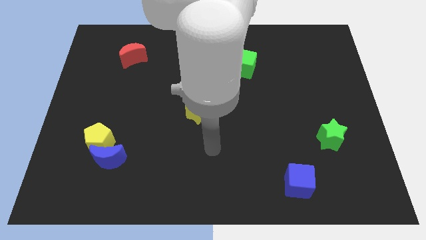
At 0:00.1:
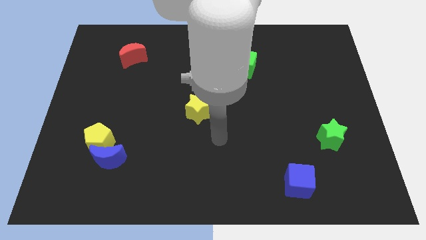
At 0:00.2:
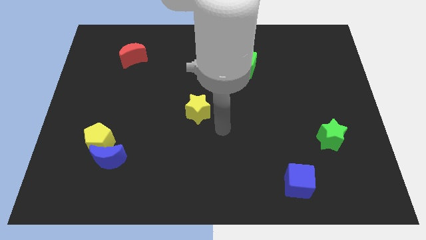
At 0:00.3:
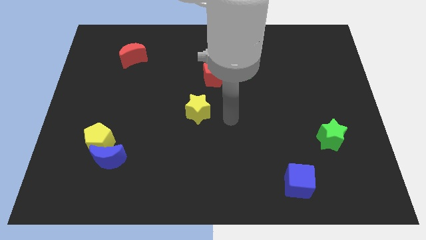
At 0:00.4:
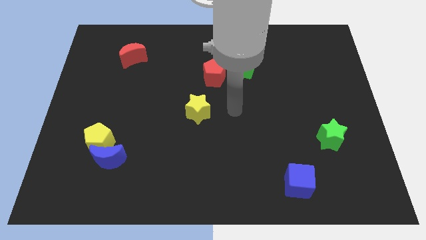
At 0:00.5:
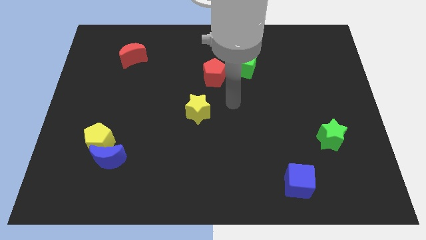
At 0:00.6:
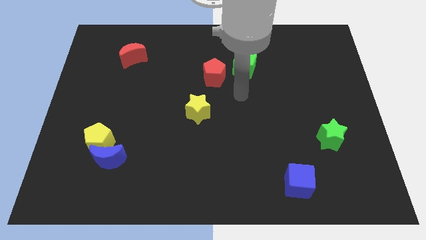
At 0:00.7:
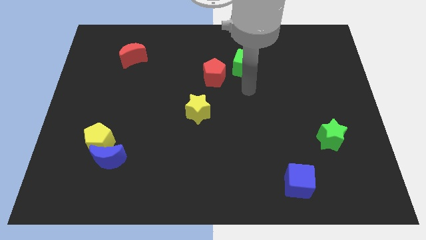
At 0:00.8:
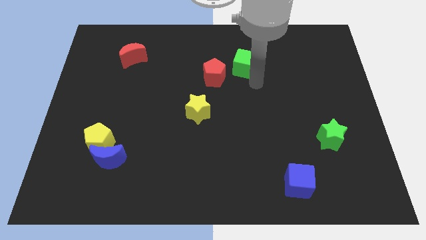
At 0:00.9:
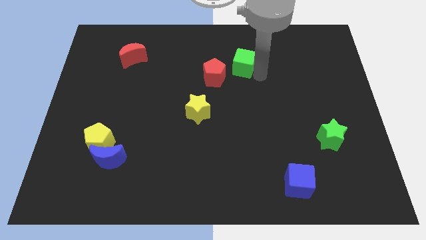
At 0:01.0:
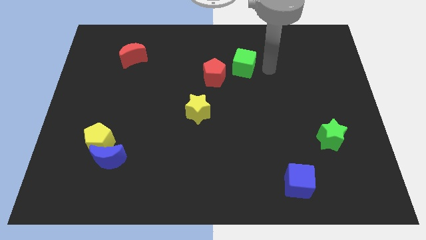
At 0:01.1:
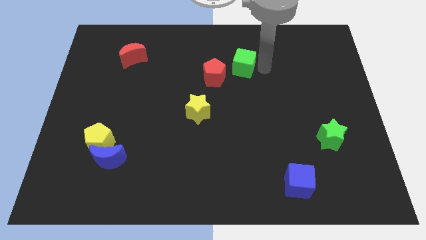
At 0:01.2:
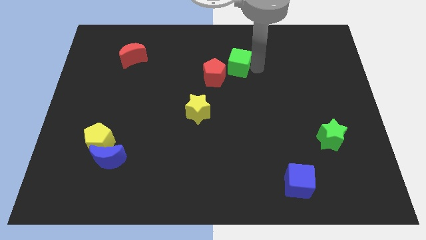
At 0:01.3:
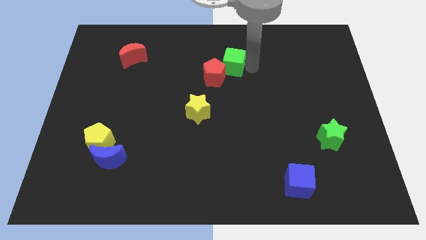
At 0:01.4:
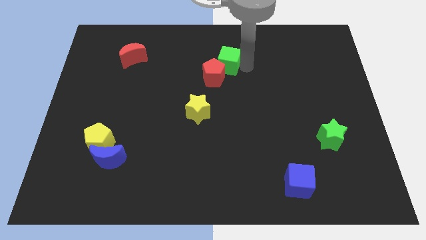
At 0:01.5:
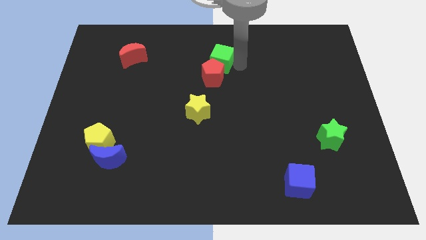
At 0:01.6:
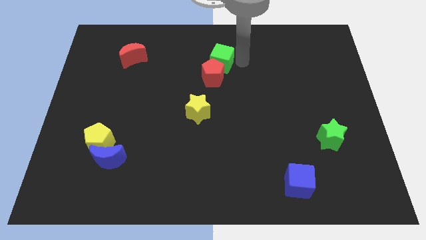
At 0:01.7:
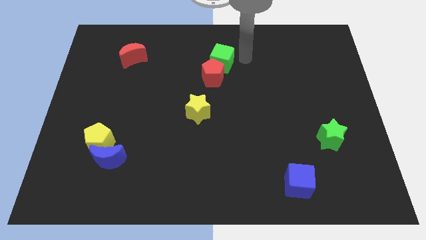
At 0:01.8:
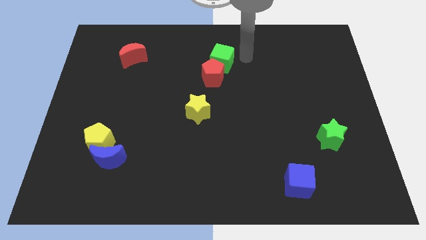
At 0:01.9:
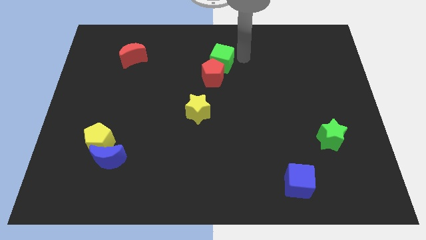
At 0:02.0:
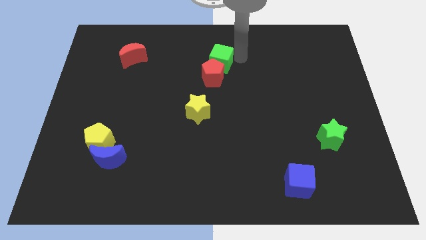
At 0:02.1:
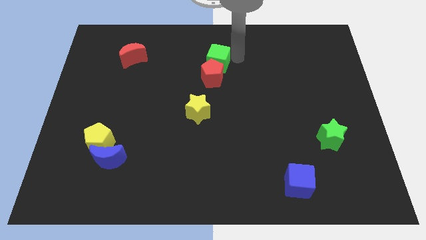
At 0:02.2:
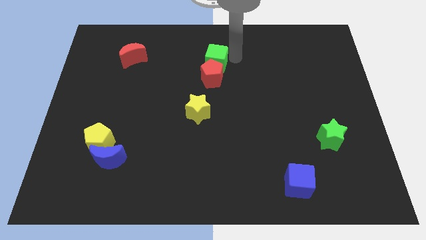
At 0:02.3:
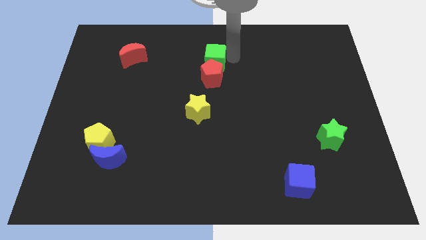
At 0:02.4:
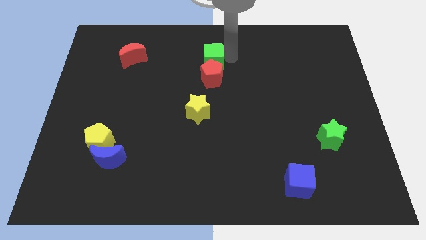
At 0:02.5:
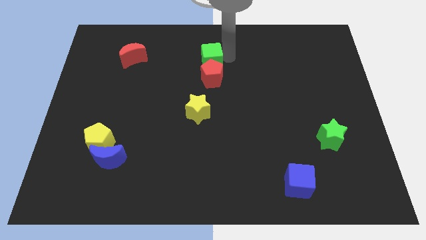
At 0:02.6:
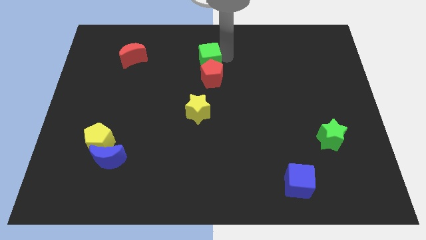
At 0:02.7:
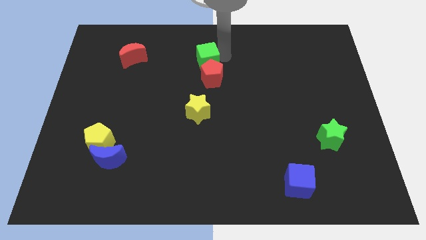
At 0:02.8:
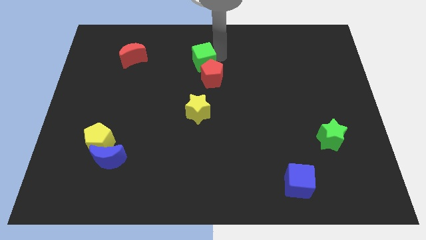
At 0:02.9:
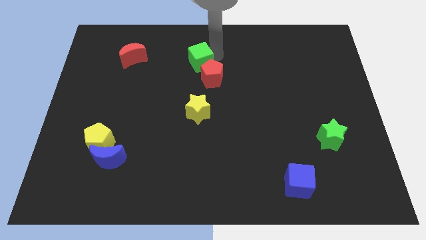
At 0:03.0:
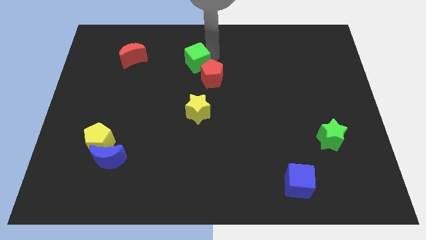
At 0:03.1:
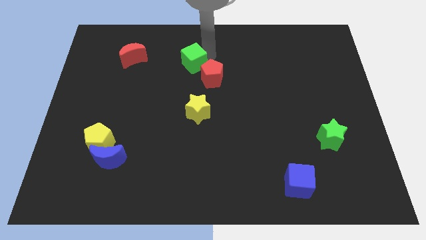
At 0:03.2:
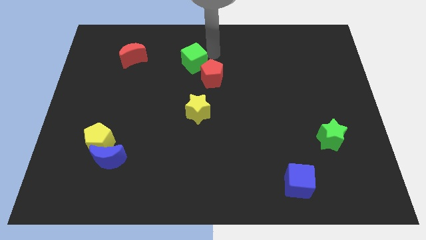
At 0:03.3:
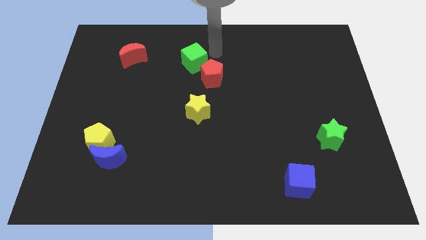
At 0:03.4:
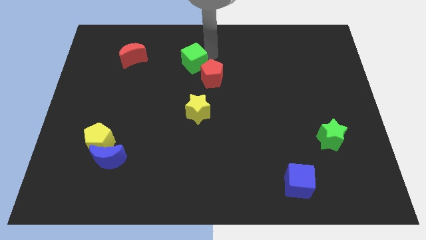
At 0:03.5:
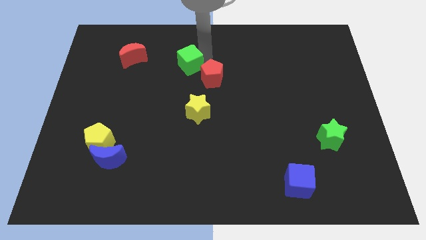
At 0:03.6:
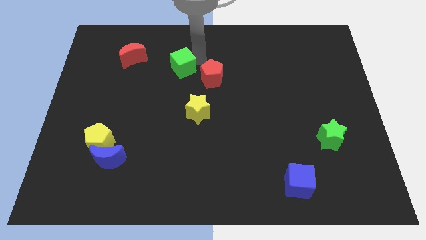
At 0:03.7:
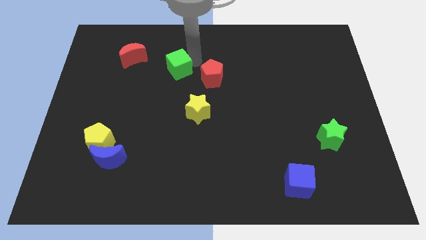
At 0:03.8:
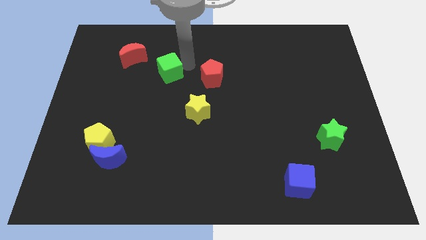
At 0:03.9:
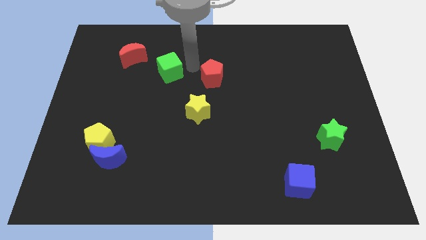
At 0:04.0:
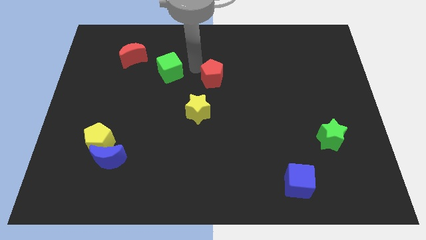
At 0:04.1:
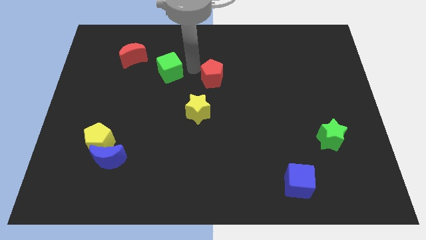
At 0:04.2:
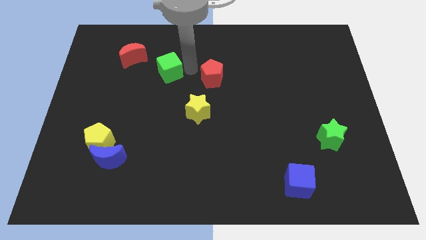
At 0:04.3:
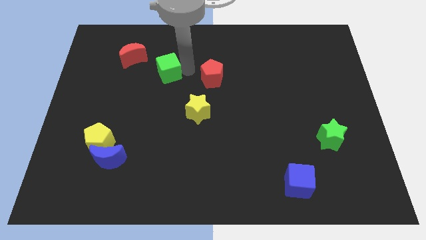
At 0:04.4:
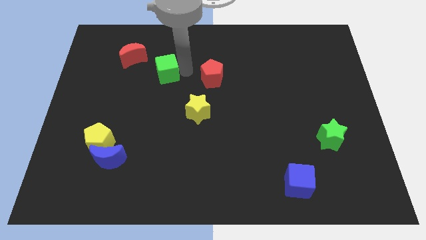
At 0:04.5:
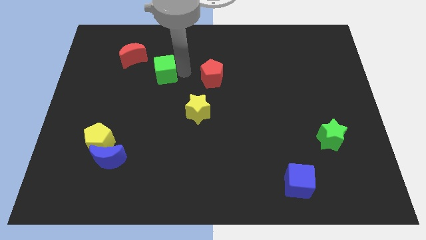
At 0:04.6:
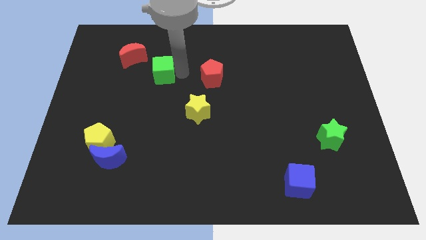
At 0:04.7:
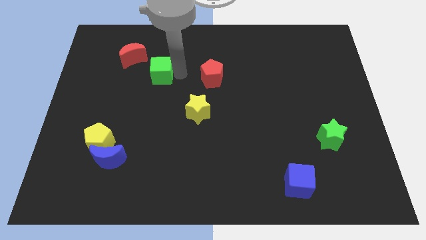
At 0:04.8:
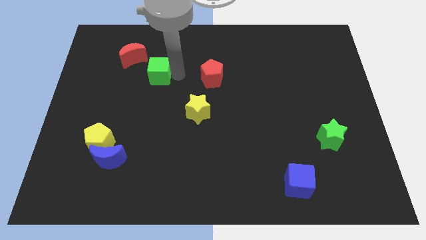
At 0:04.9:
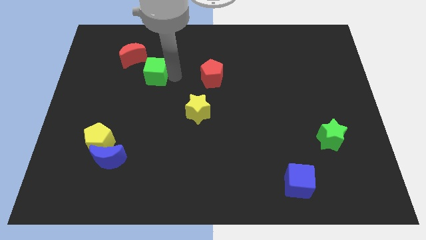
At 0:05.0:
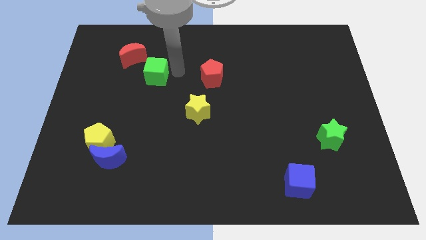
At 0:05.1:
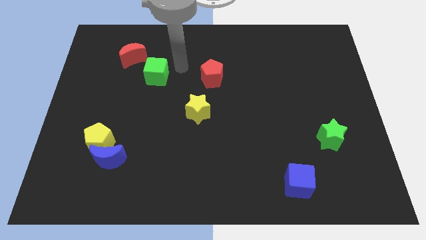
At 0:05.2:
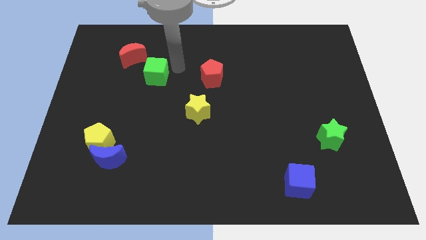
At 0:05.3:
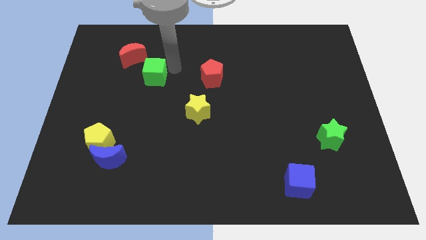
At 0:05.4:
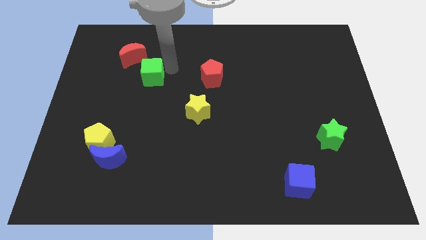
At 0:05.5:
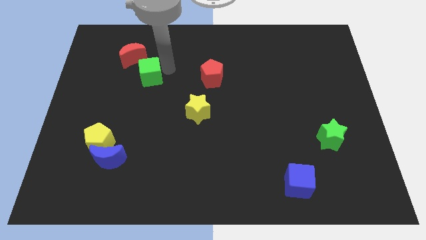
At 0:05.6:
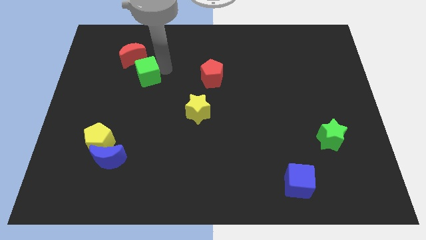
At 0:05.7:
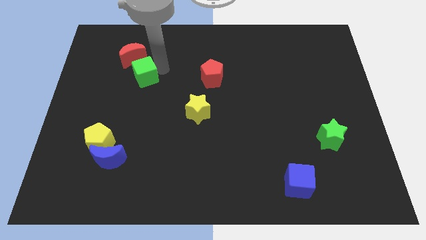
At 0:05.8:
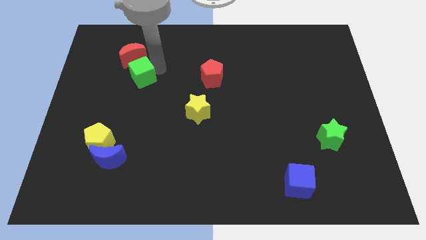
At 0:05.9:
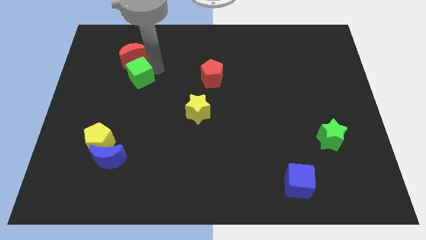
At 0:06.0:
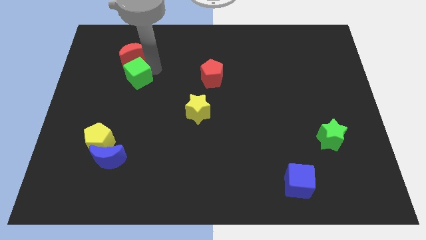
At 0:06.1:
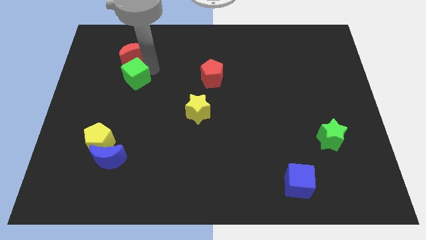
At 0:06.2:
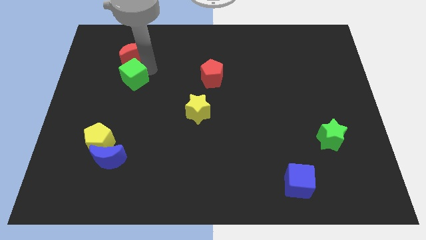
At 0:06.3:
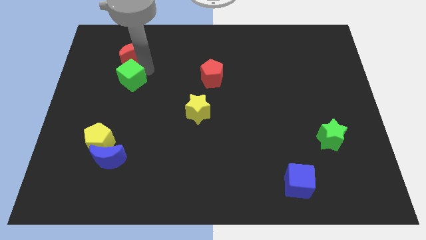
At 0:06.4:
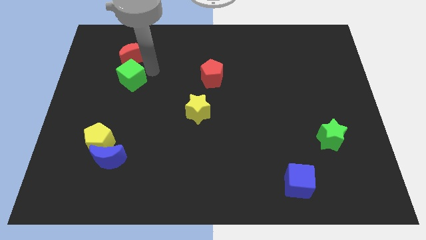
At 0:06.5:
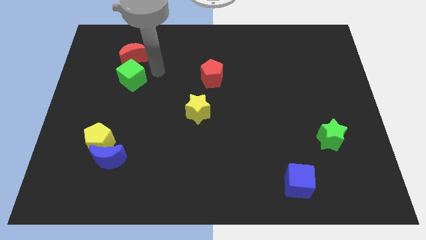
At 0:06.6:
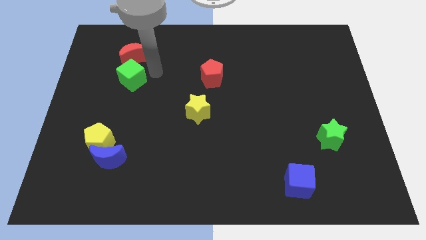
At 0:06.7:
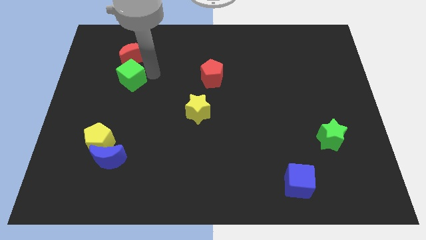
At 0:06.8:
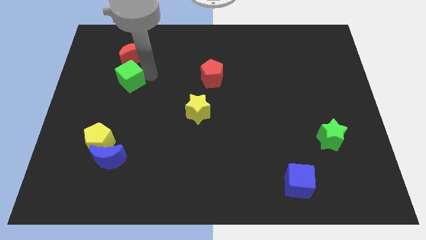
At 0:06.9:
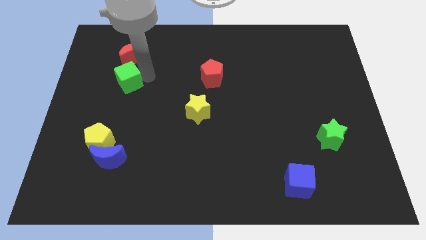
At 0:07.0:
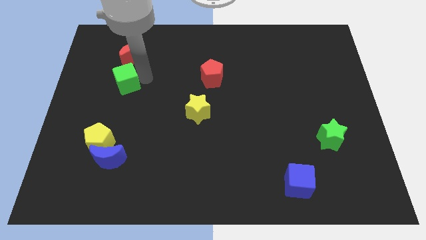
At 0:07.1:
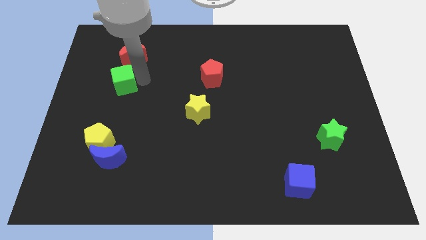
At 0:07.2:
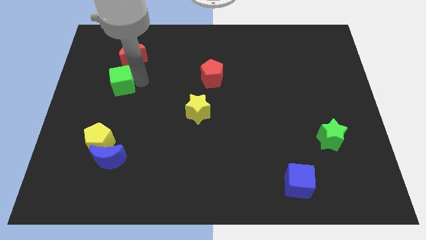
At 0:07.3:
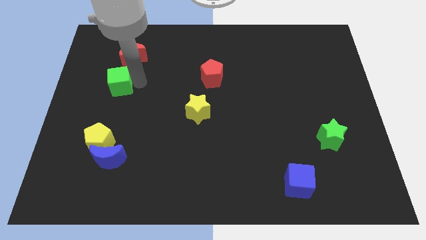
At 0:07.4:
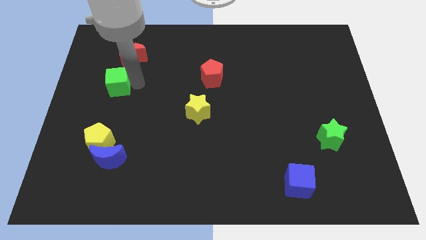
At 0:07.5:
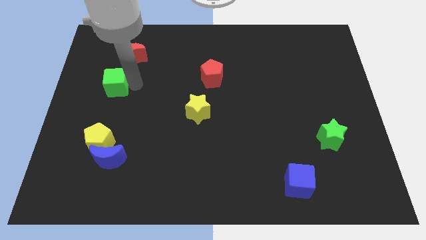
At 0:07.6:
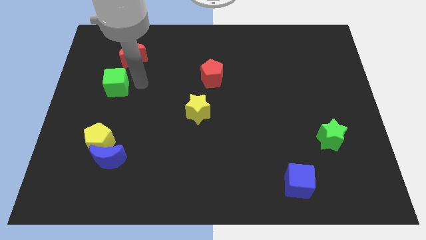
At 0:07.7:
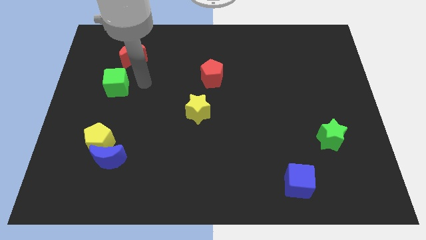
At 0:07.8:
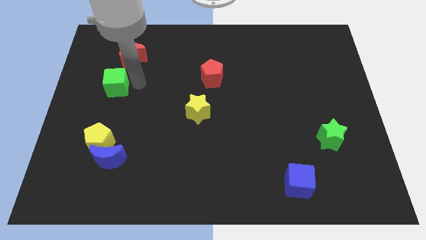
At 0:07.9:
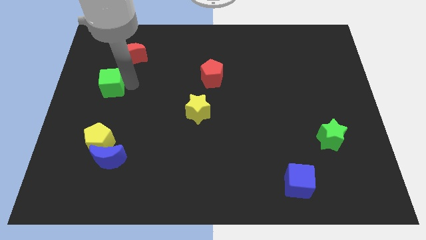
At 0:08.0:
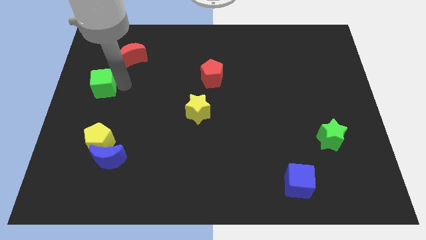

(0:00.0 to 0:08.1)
move the green cube to the center left
